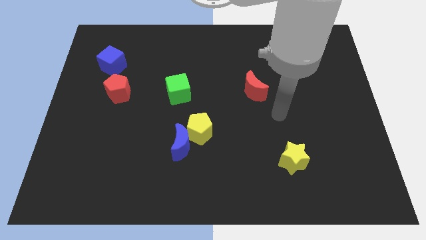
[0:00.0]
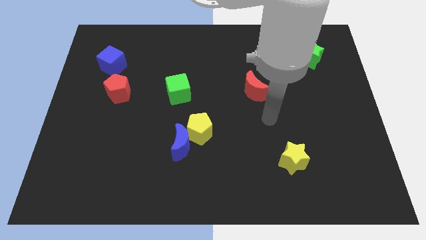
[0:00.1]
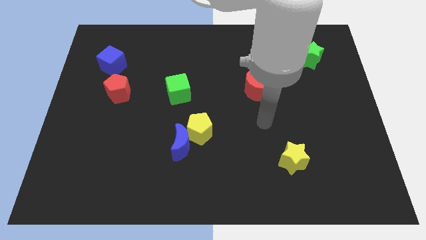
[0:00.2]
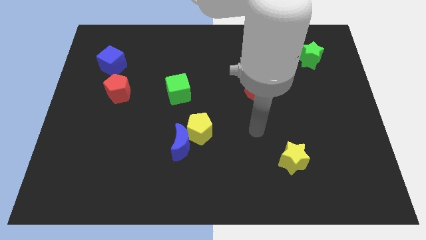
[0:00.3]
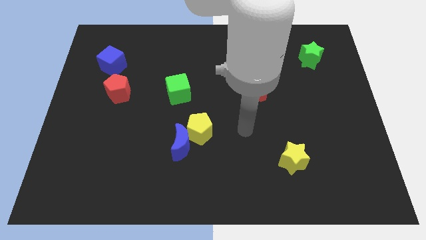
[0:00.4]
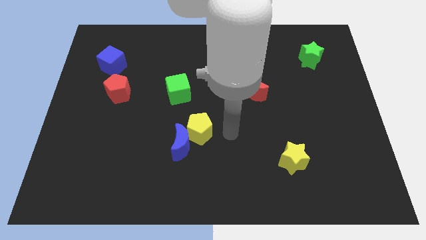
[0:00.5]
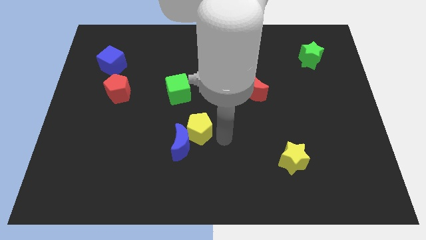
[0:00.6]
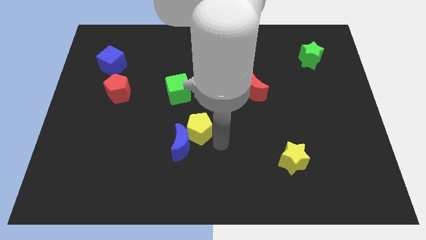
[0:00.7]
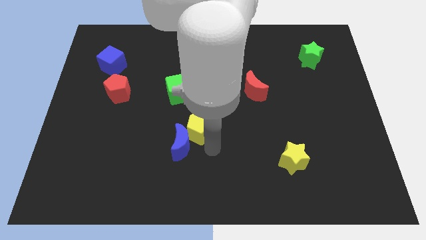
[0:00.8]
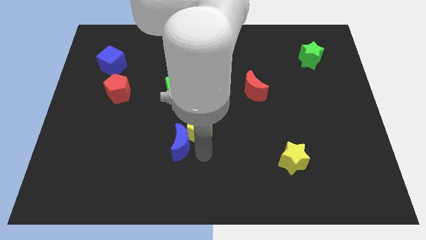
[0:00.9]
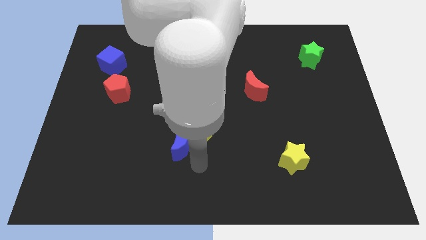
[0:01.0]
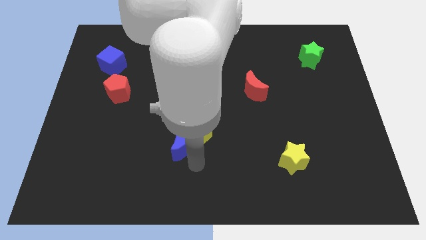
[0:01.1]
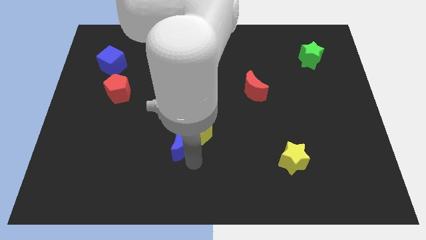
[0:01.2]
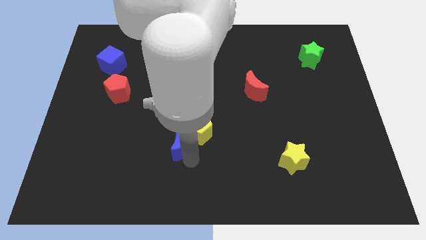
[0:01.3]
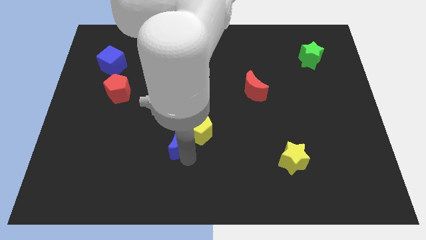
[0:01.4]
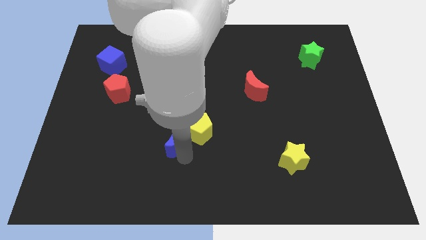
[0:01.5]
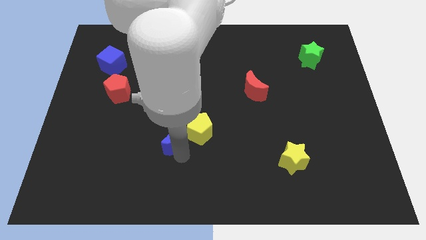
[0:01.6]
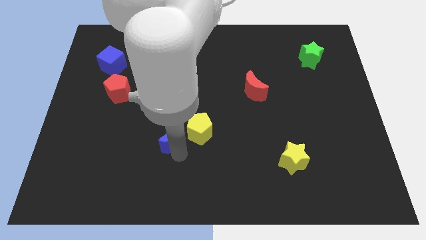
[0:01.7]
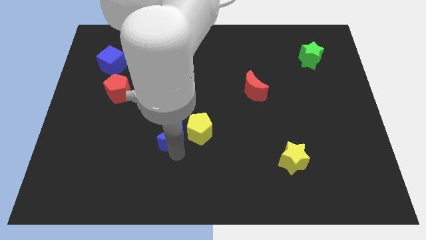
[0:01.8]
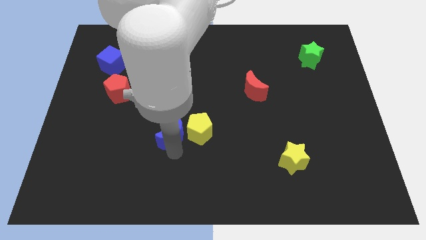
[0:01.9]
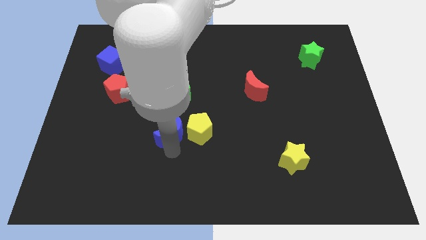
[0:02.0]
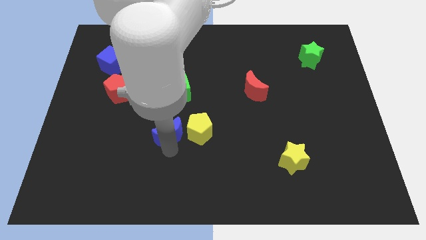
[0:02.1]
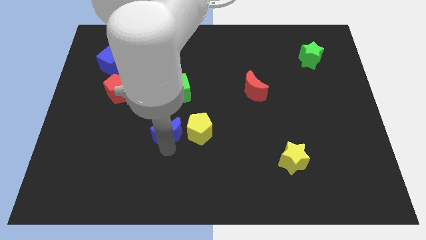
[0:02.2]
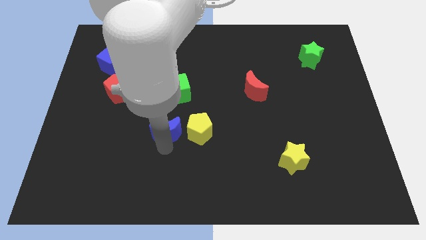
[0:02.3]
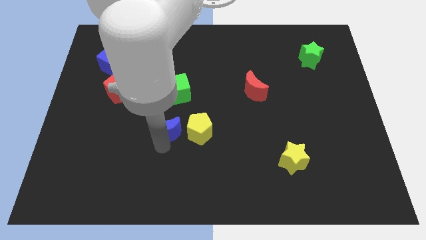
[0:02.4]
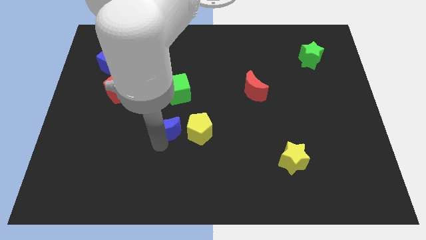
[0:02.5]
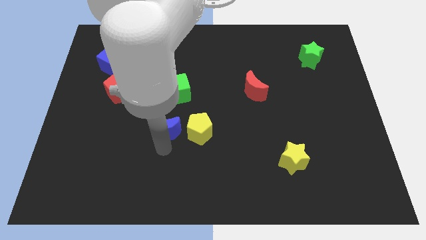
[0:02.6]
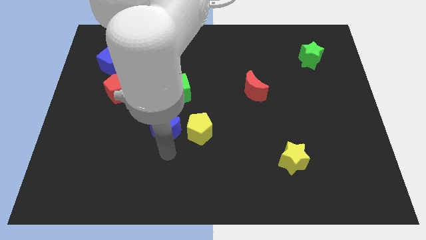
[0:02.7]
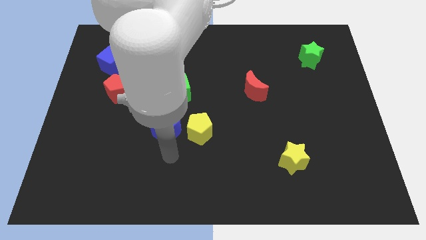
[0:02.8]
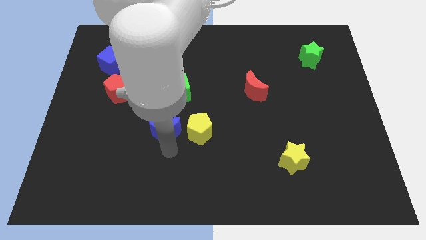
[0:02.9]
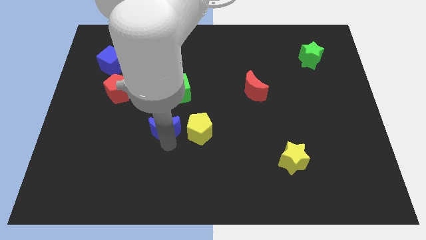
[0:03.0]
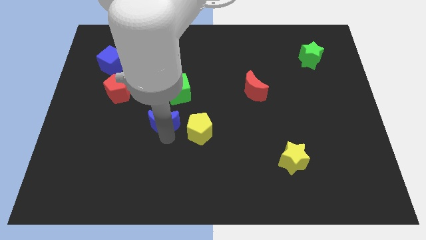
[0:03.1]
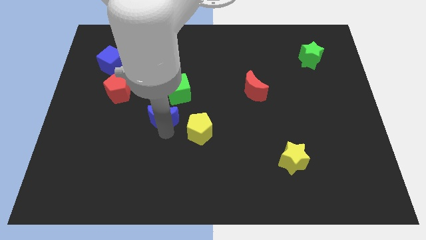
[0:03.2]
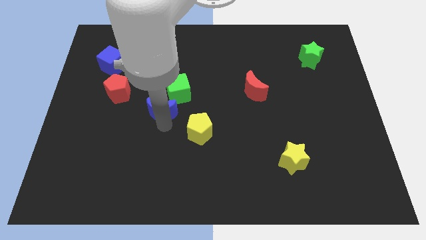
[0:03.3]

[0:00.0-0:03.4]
push the blue moon a little up

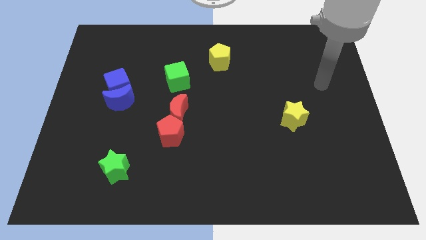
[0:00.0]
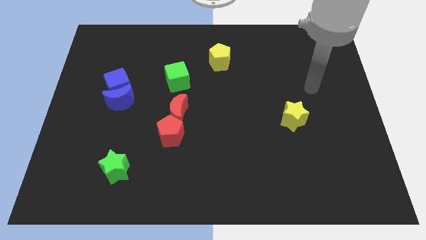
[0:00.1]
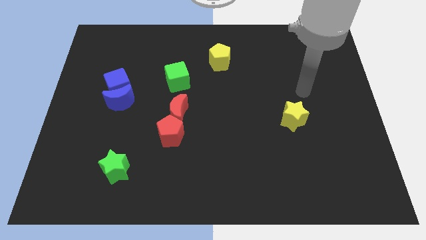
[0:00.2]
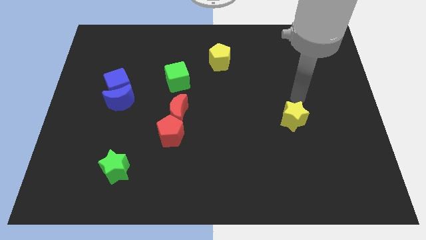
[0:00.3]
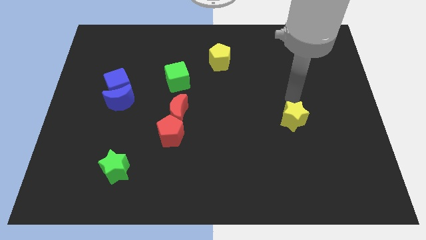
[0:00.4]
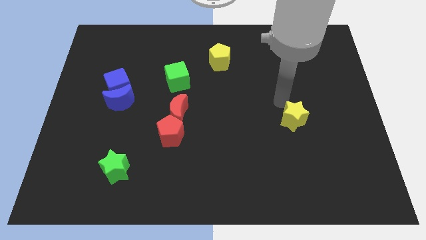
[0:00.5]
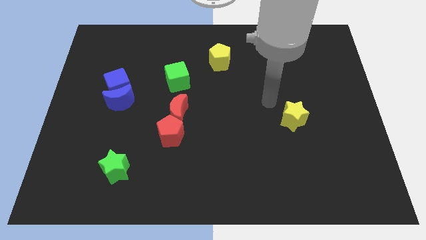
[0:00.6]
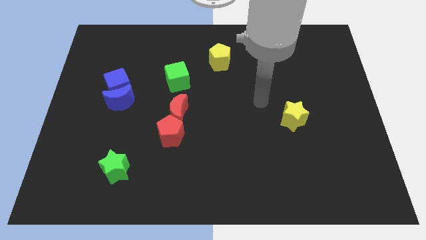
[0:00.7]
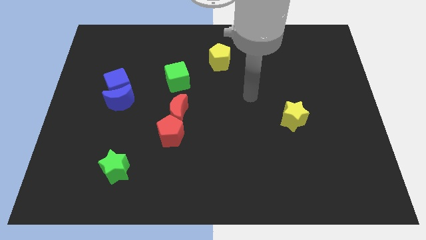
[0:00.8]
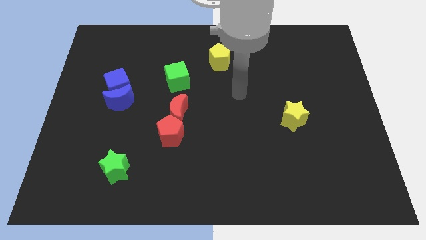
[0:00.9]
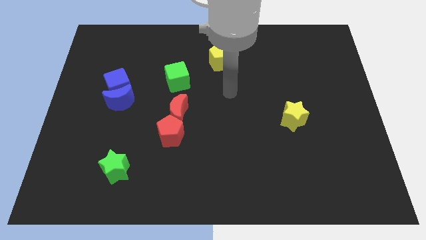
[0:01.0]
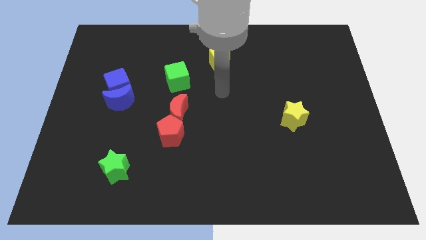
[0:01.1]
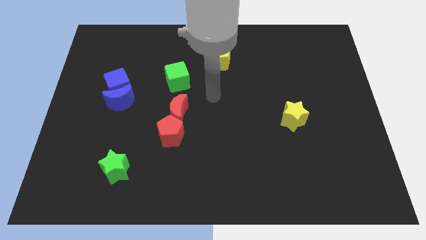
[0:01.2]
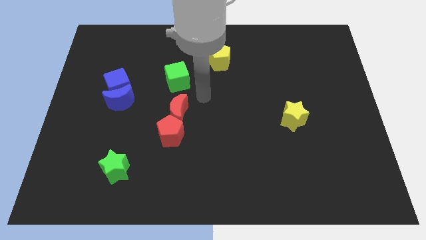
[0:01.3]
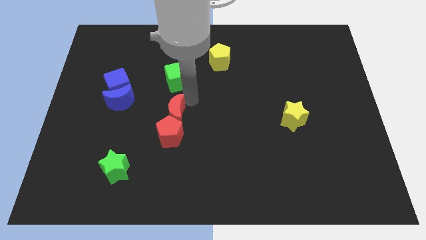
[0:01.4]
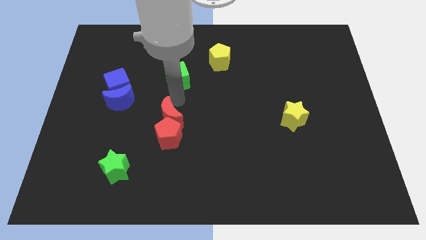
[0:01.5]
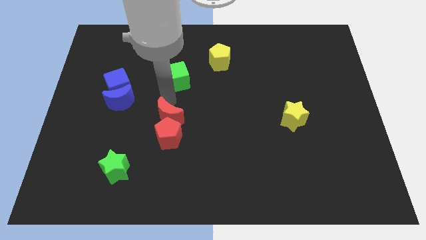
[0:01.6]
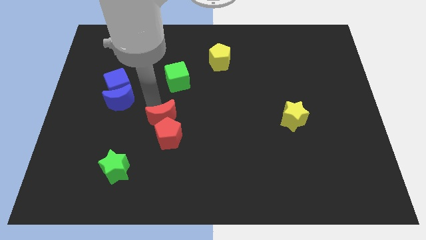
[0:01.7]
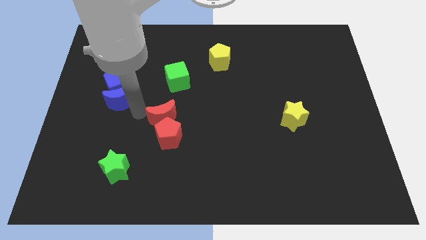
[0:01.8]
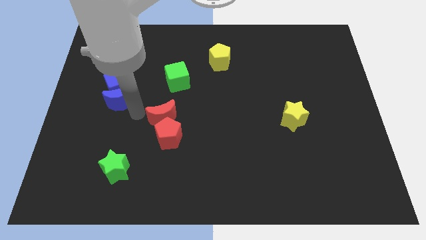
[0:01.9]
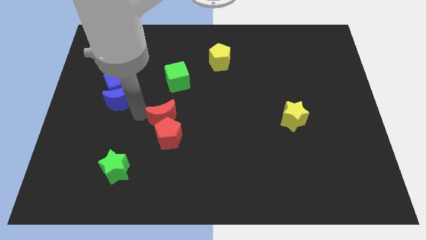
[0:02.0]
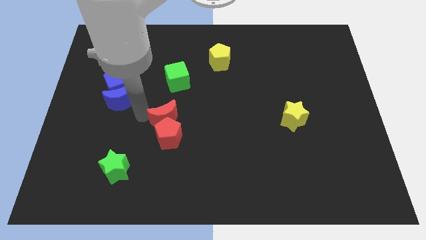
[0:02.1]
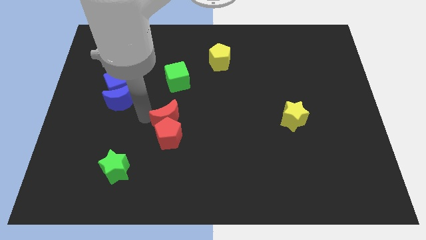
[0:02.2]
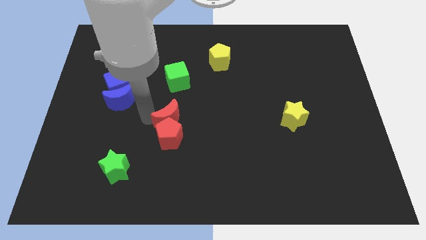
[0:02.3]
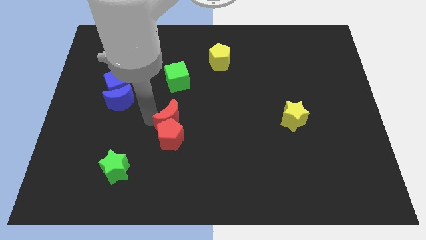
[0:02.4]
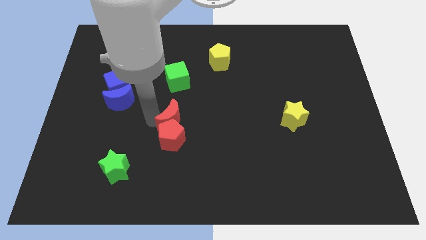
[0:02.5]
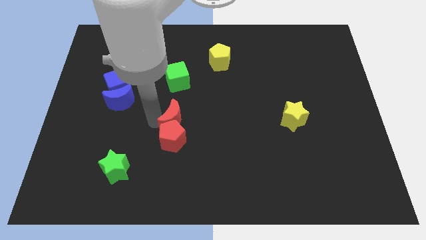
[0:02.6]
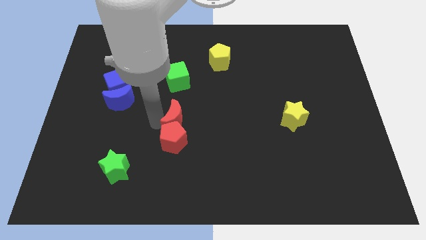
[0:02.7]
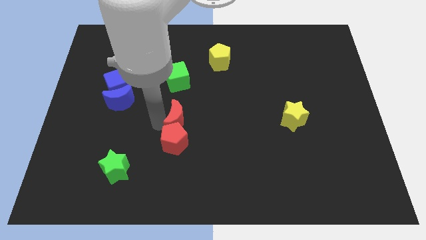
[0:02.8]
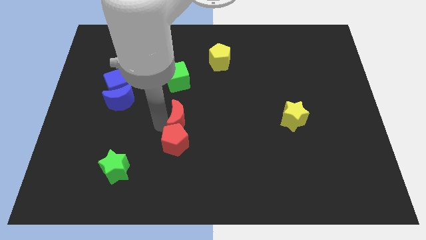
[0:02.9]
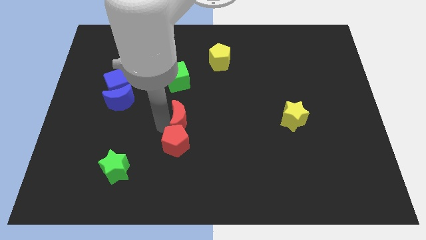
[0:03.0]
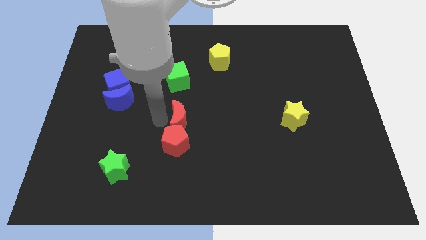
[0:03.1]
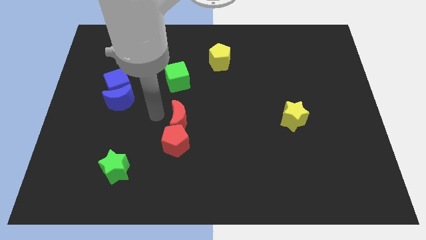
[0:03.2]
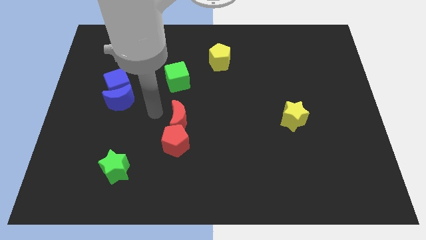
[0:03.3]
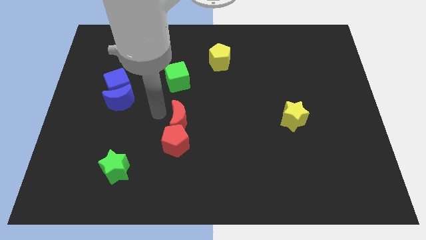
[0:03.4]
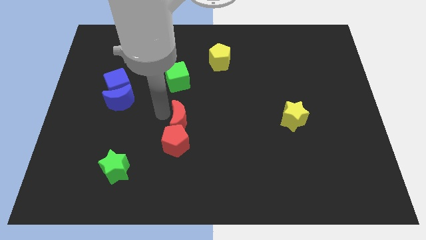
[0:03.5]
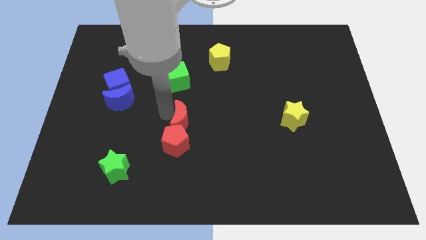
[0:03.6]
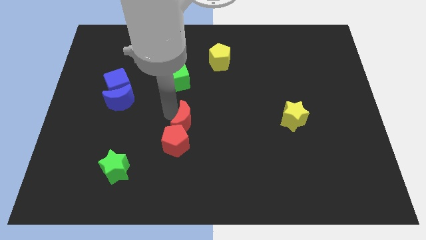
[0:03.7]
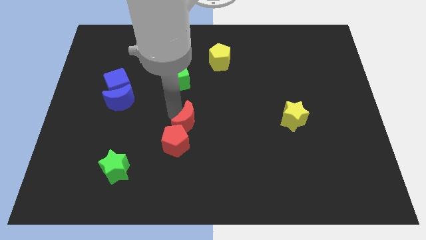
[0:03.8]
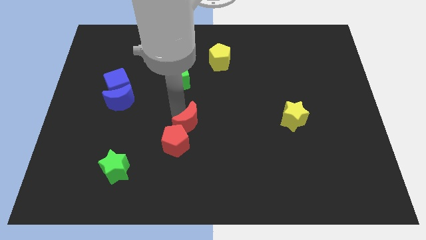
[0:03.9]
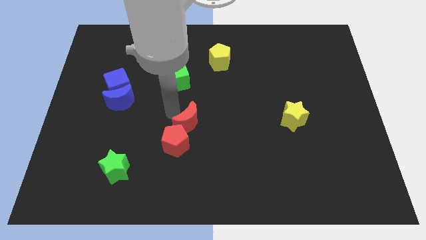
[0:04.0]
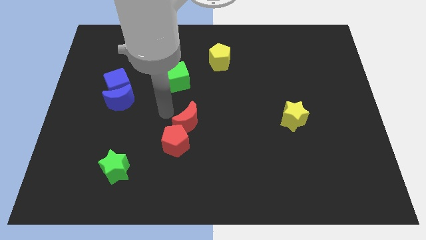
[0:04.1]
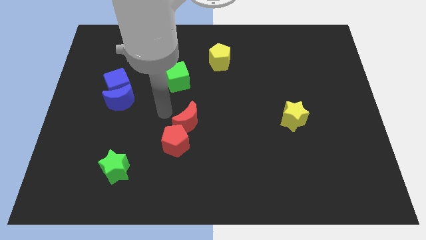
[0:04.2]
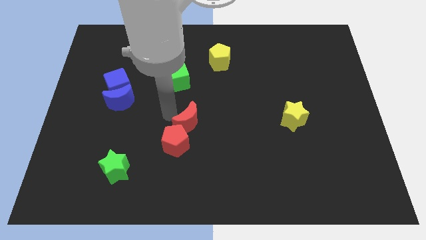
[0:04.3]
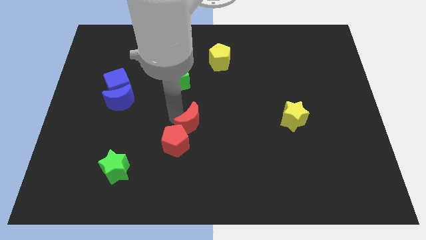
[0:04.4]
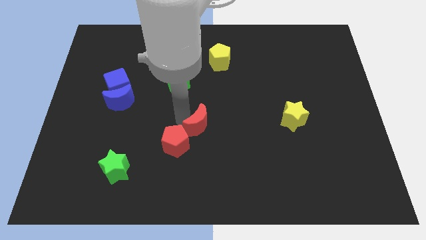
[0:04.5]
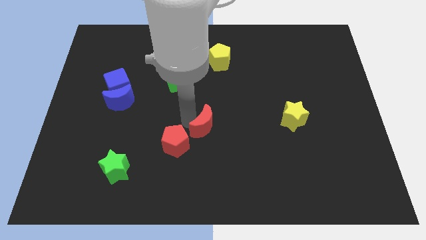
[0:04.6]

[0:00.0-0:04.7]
slightly slide the red moon downwards and to the right diagonally

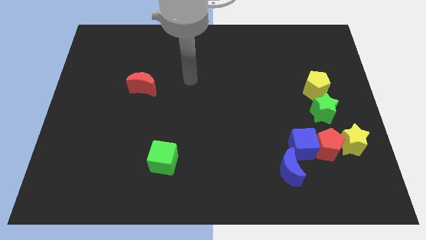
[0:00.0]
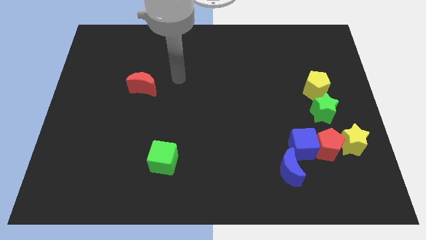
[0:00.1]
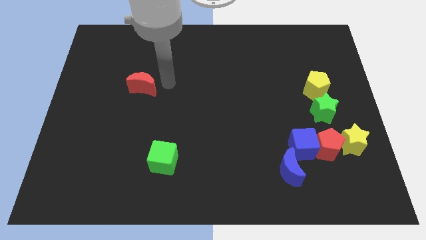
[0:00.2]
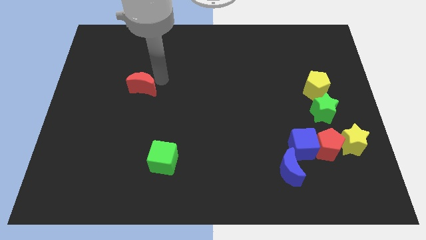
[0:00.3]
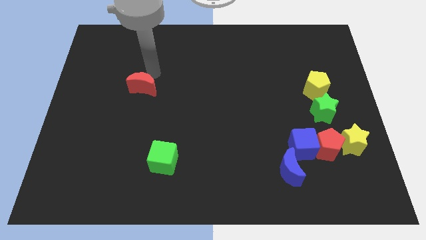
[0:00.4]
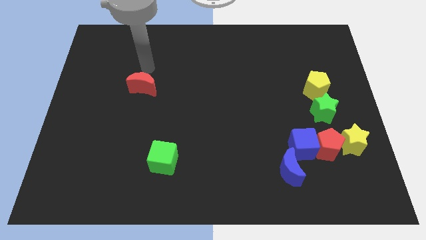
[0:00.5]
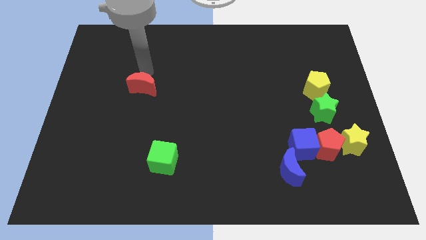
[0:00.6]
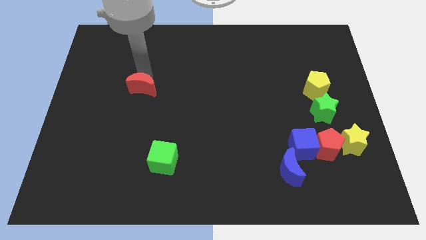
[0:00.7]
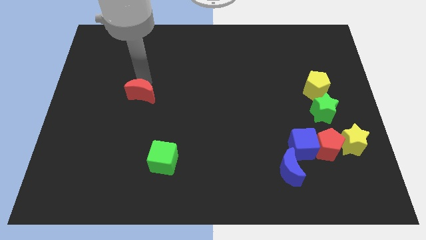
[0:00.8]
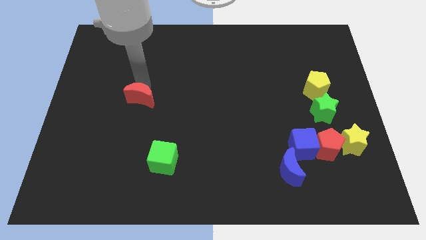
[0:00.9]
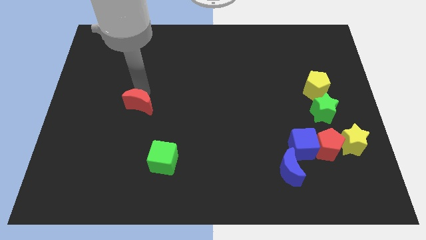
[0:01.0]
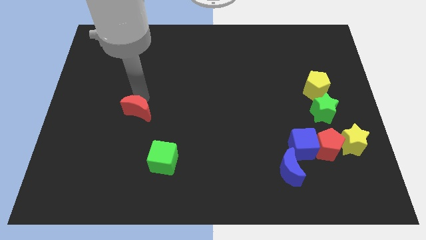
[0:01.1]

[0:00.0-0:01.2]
push the red moon down slightly
